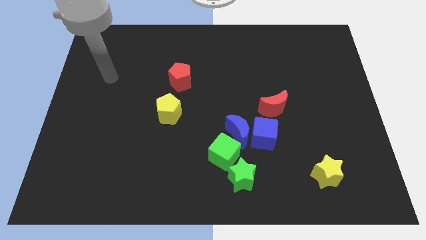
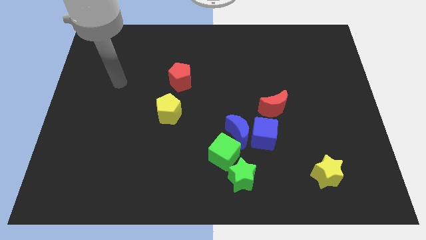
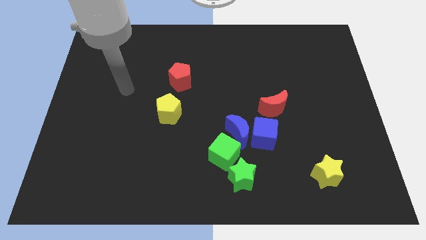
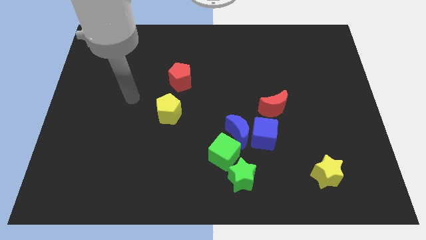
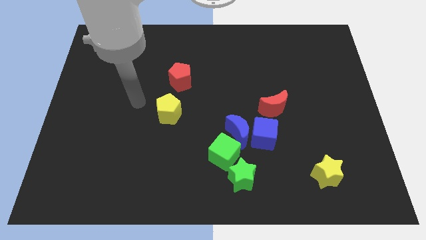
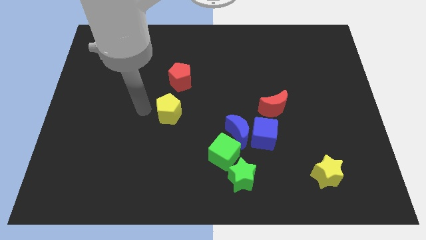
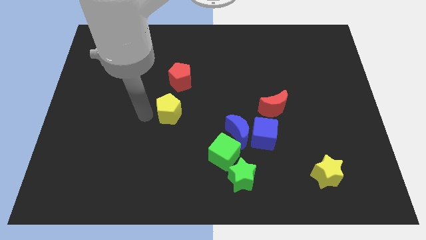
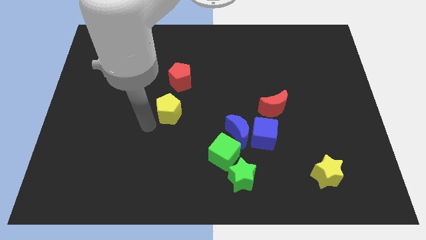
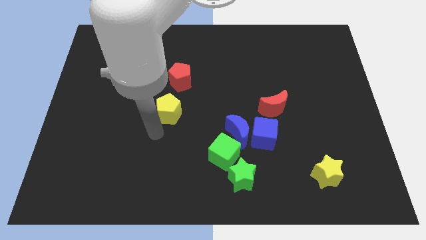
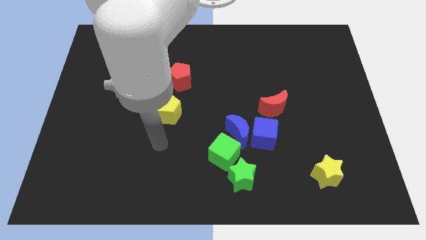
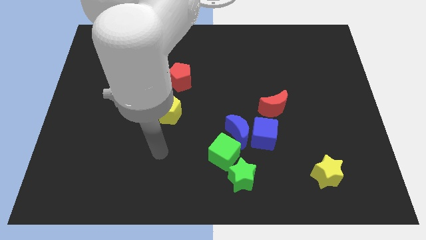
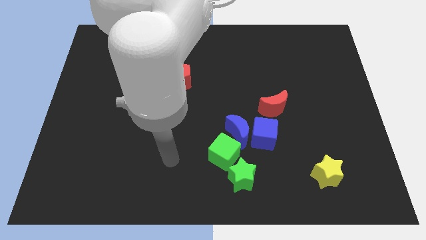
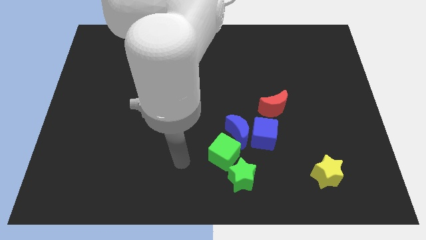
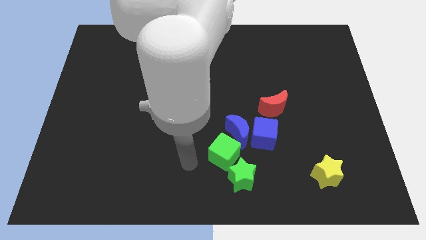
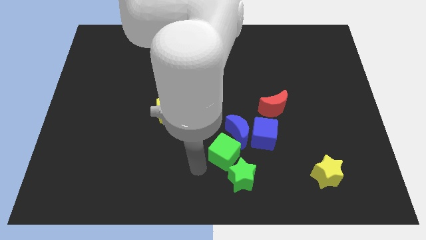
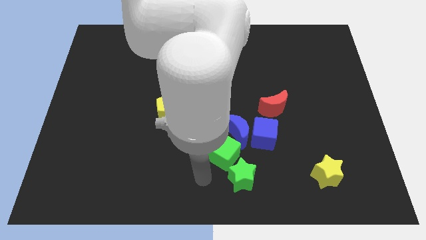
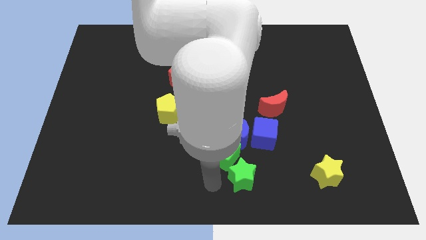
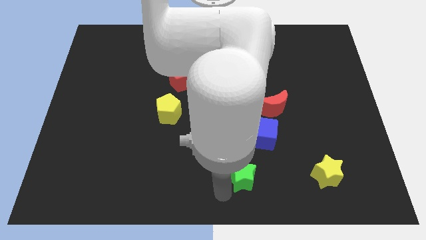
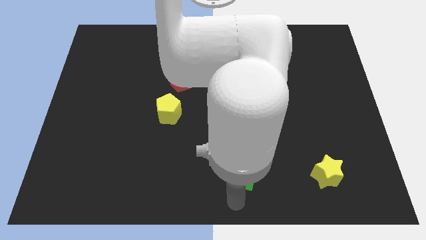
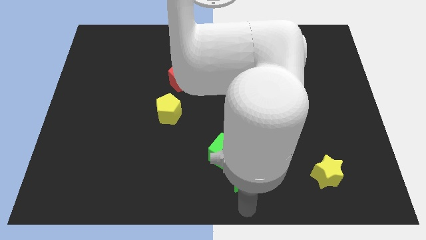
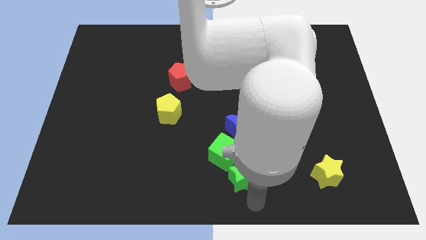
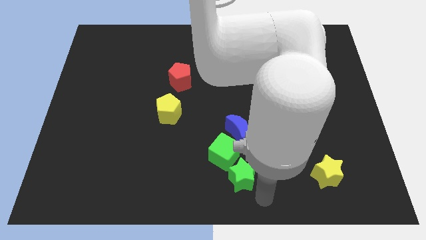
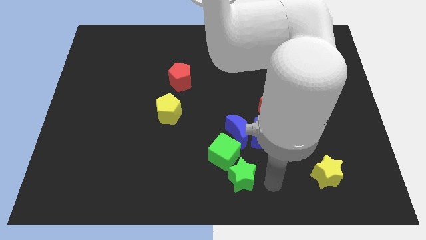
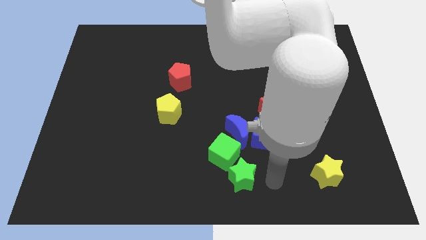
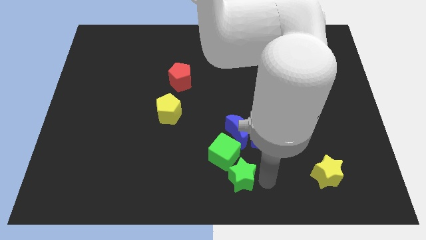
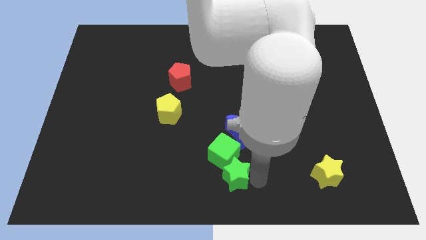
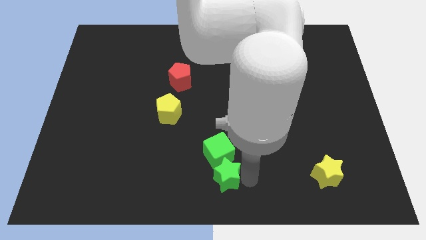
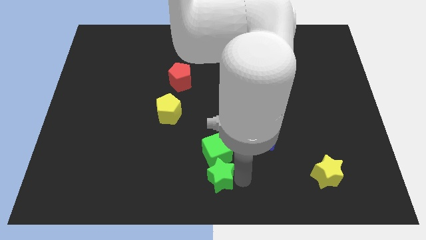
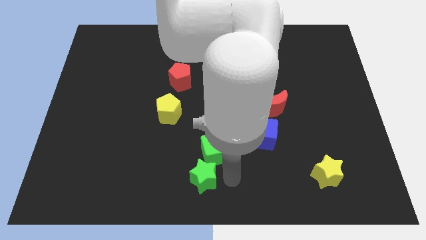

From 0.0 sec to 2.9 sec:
slightly push the green star to the left

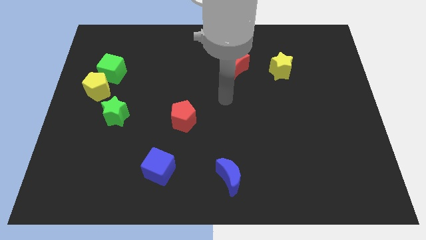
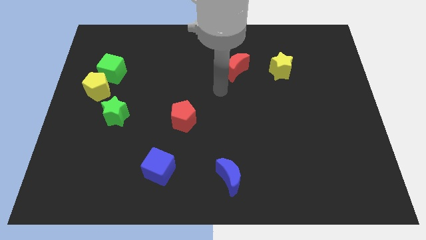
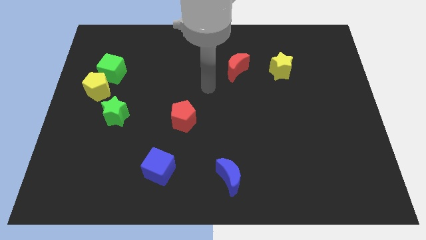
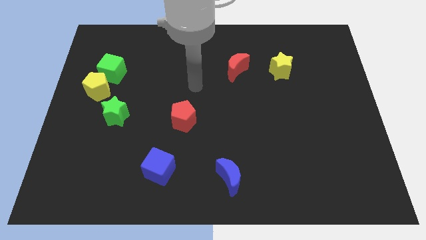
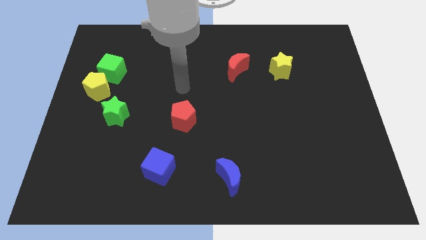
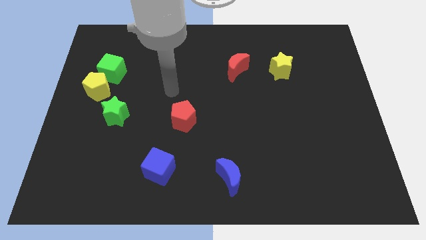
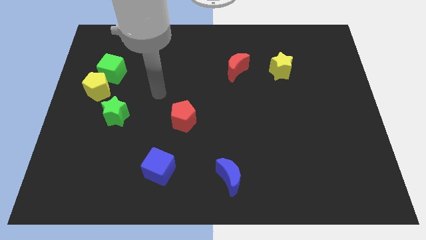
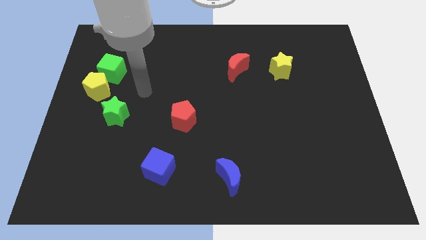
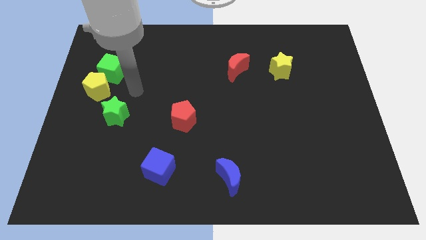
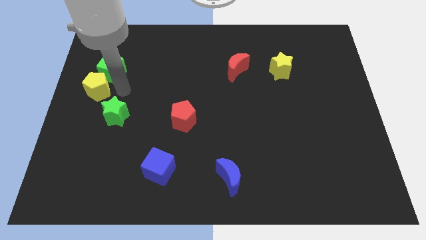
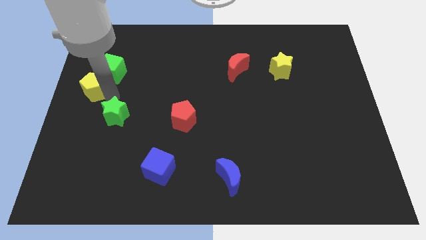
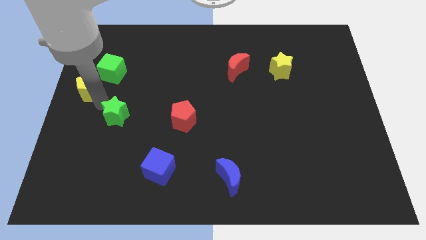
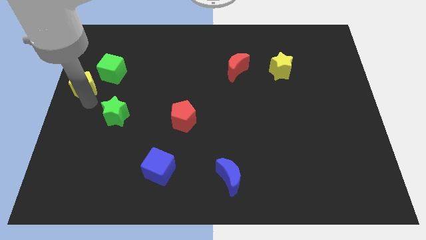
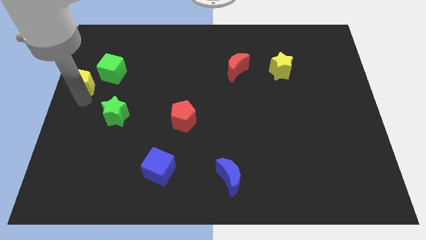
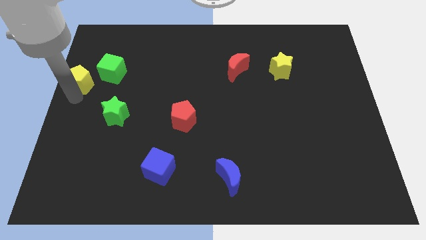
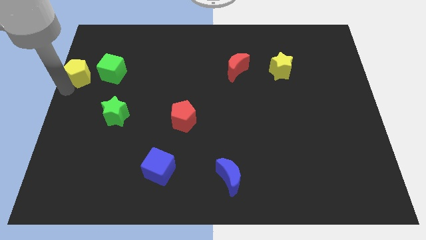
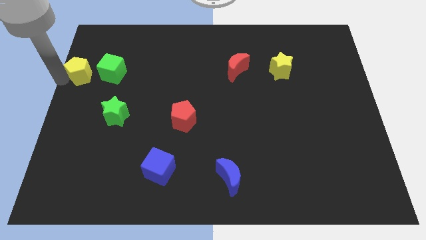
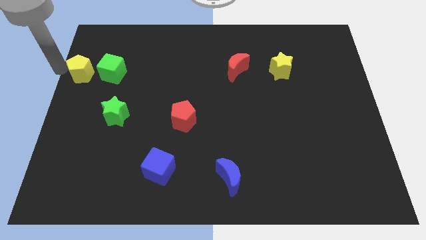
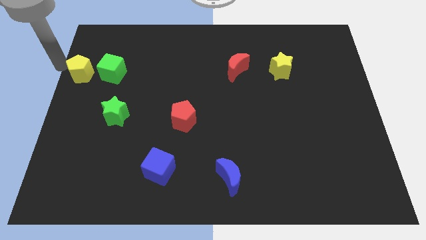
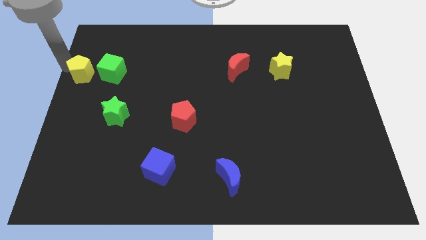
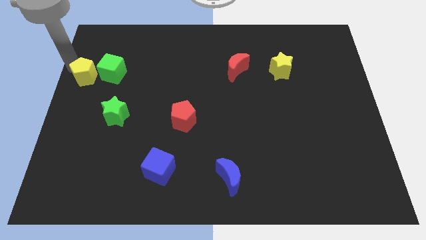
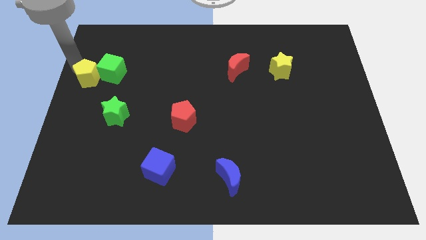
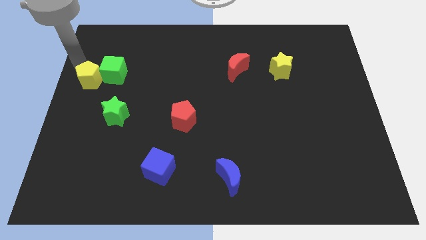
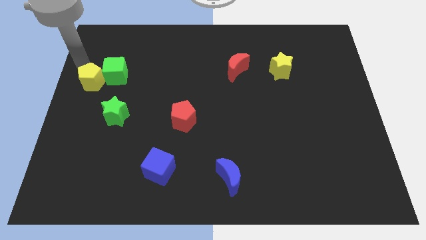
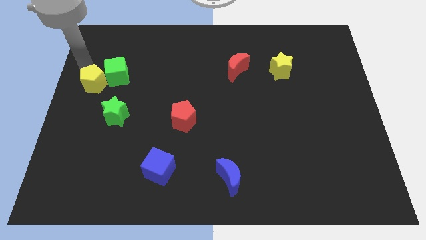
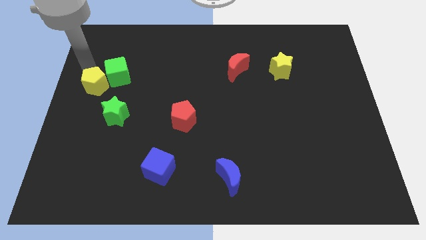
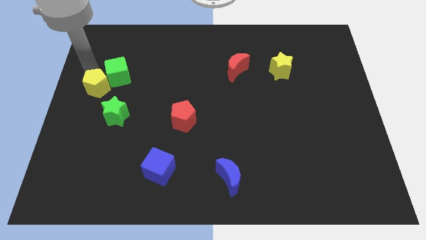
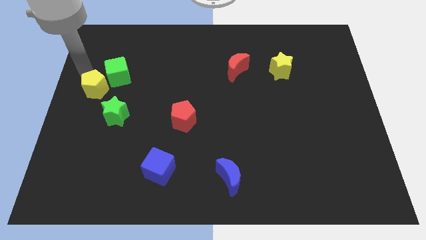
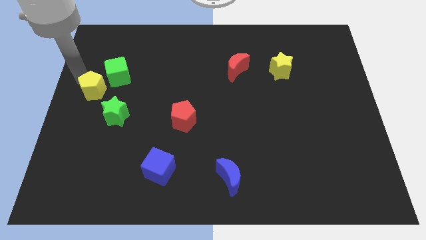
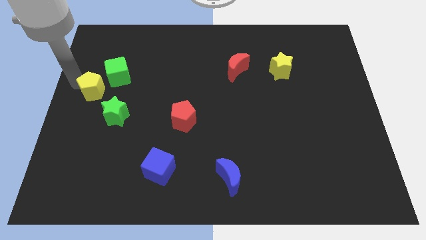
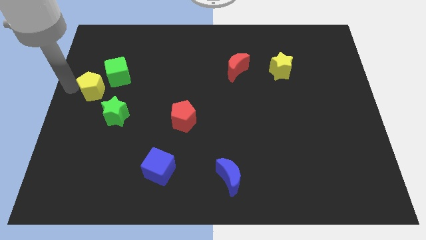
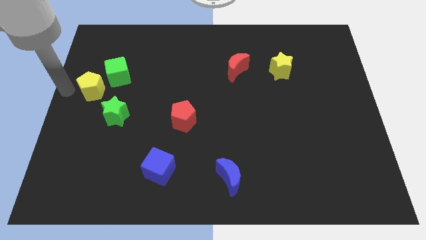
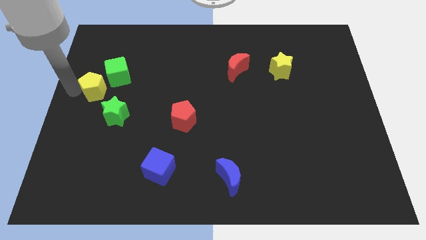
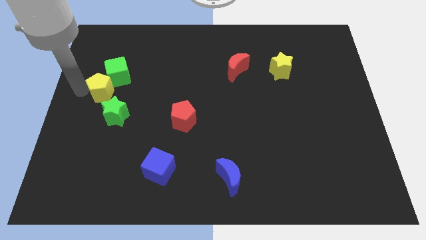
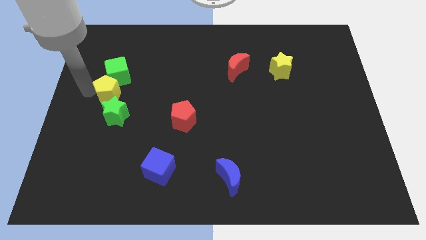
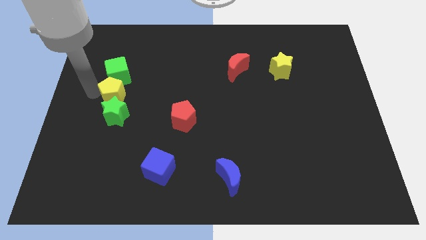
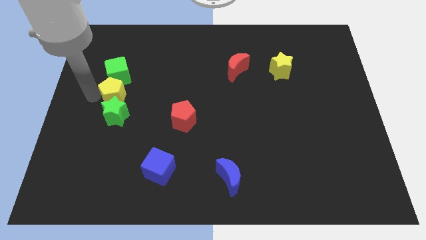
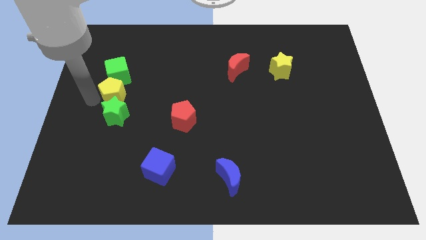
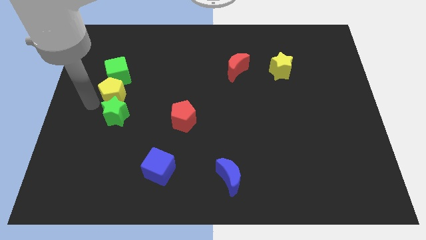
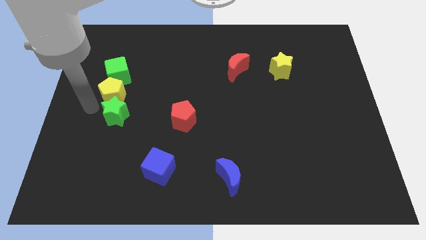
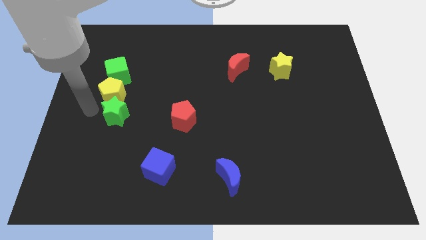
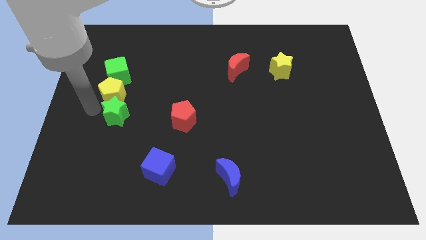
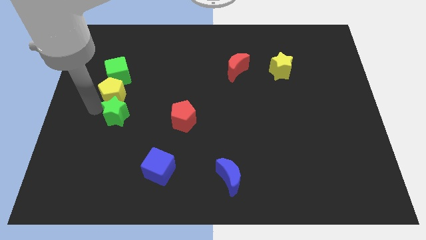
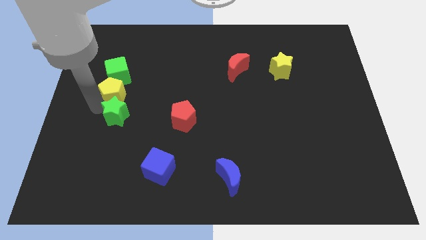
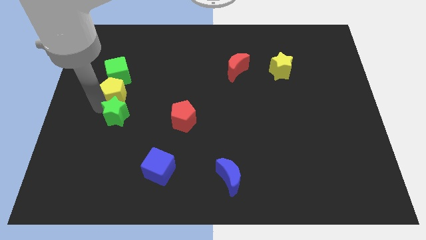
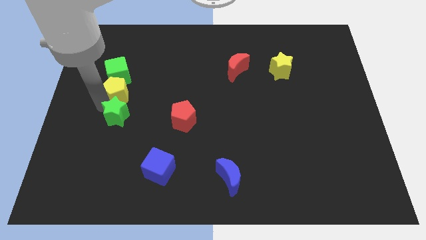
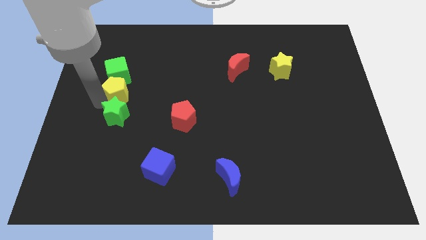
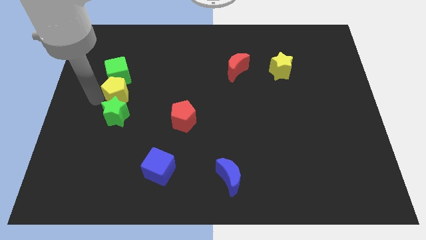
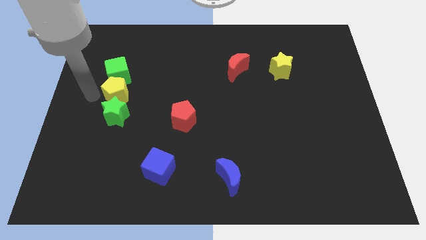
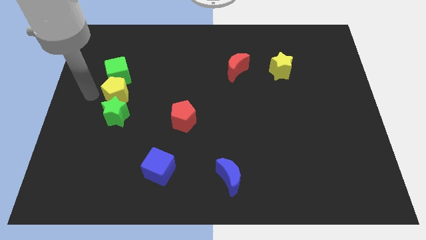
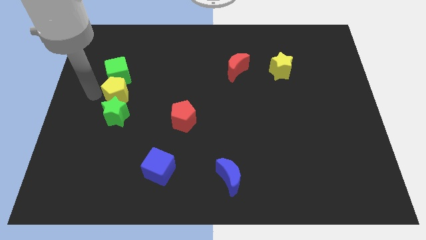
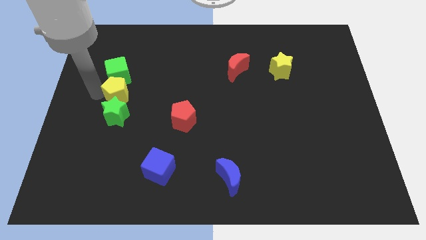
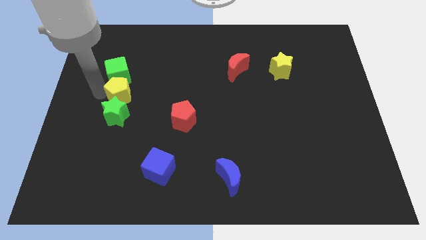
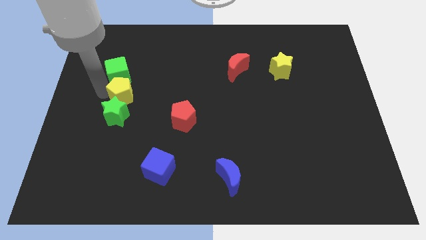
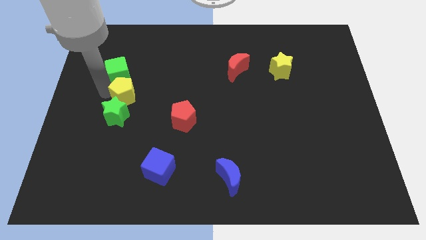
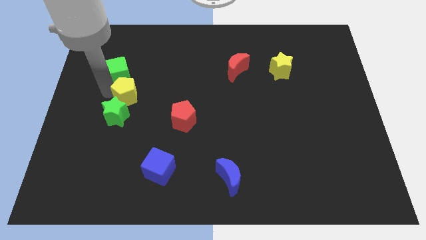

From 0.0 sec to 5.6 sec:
slightly slide the yellow pentagon right
